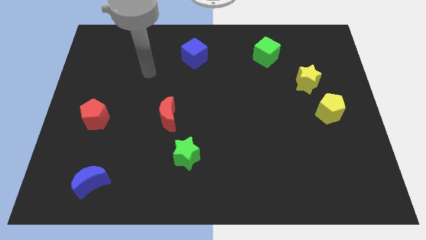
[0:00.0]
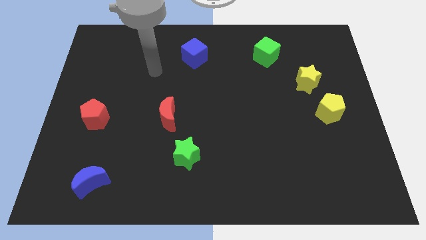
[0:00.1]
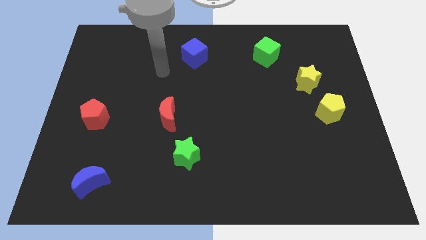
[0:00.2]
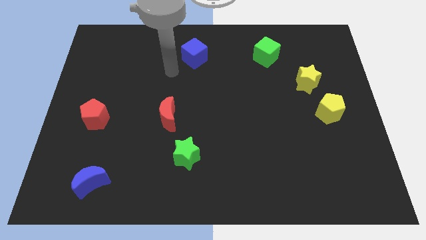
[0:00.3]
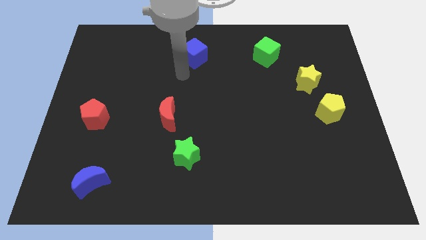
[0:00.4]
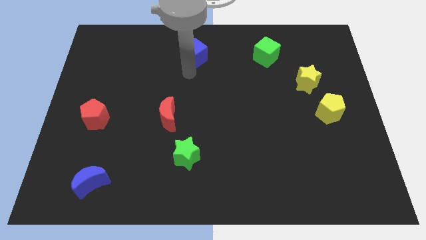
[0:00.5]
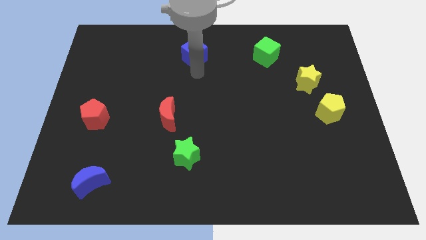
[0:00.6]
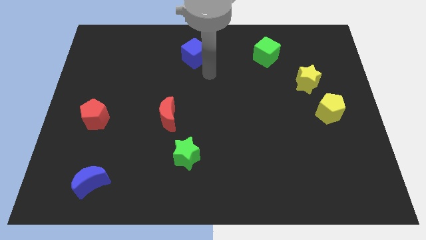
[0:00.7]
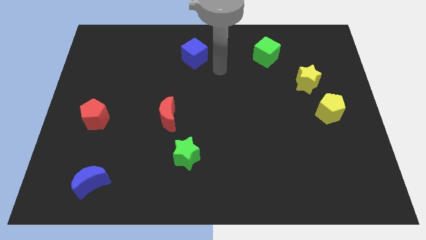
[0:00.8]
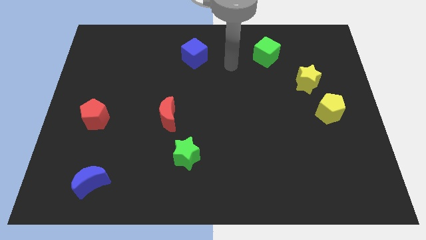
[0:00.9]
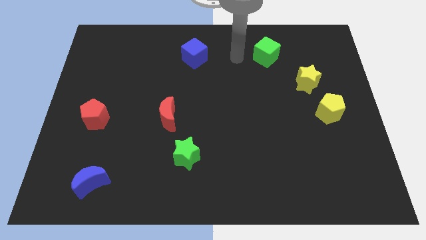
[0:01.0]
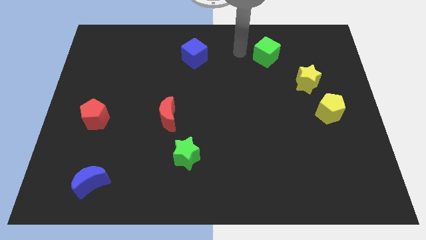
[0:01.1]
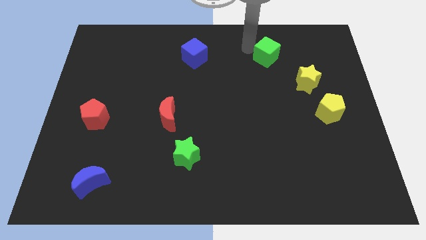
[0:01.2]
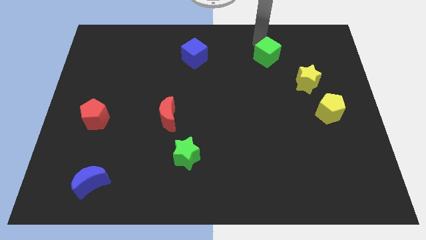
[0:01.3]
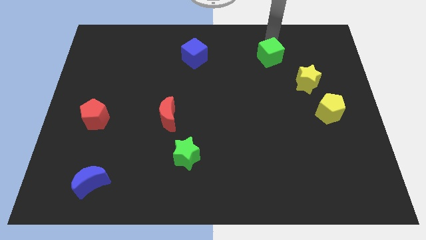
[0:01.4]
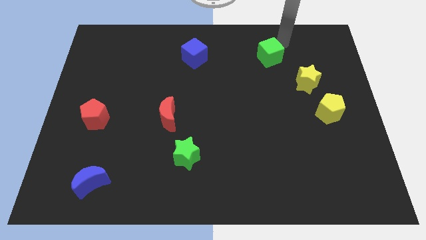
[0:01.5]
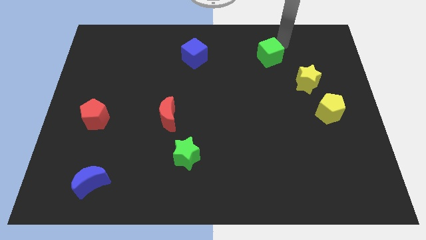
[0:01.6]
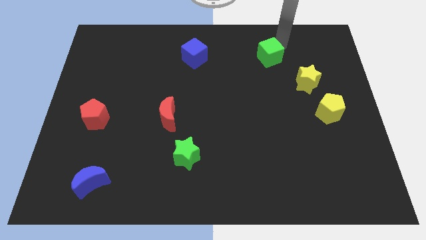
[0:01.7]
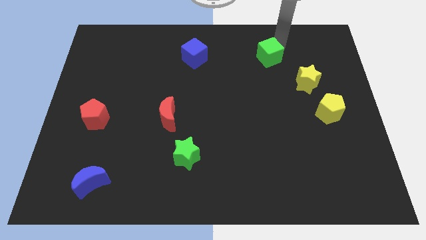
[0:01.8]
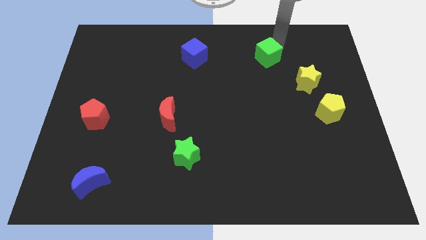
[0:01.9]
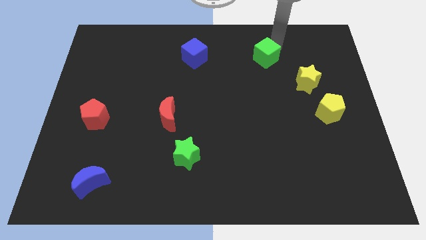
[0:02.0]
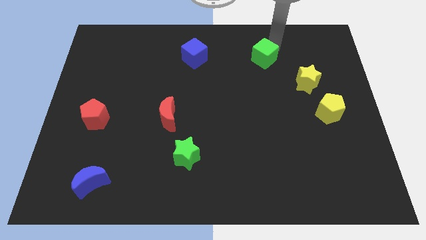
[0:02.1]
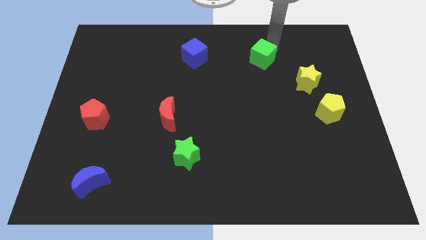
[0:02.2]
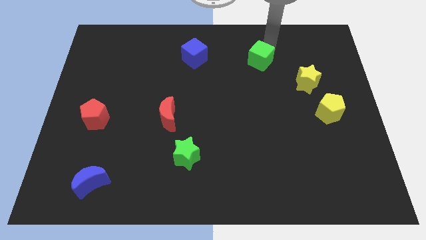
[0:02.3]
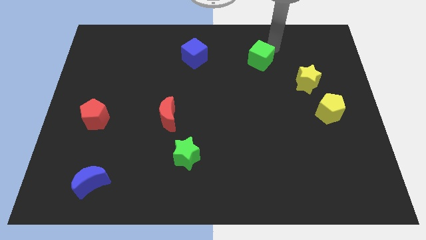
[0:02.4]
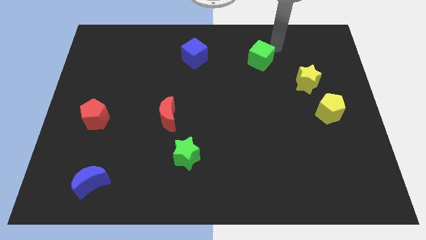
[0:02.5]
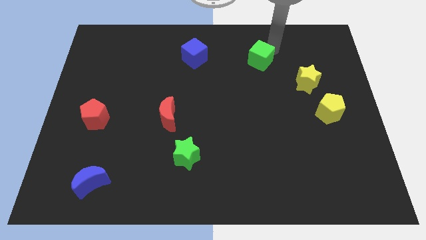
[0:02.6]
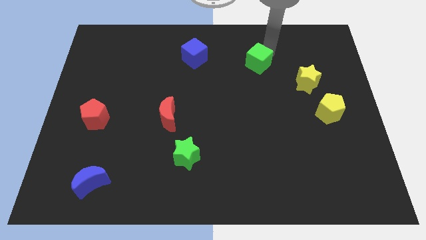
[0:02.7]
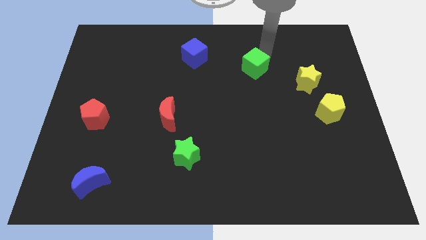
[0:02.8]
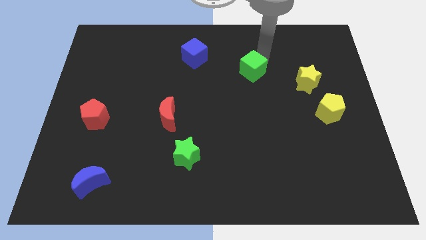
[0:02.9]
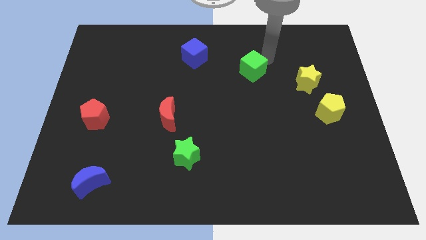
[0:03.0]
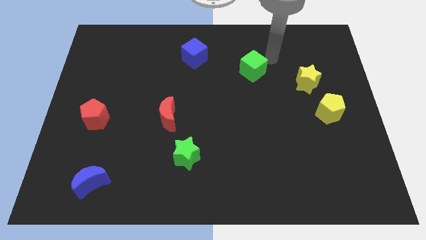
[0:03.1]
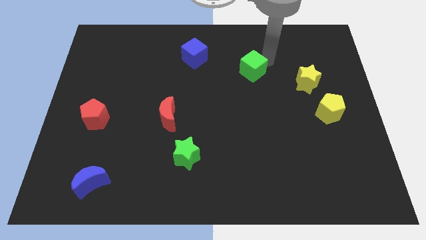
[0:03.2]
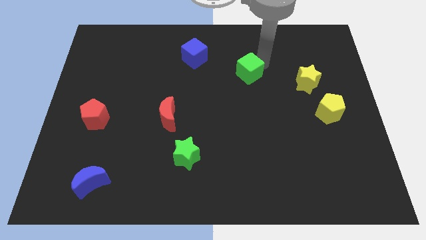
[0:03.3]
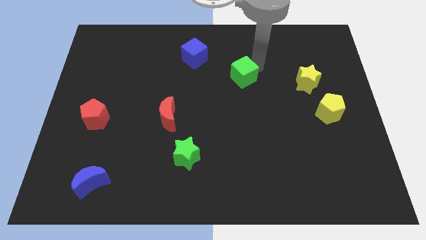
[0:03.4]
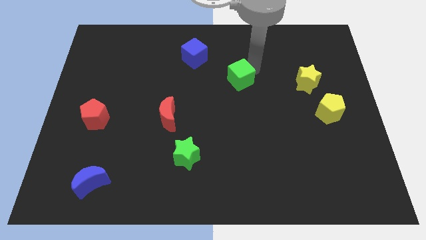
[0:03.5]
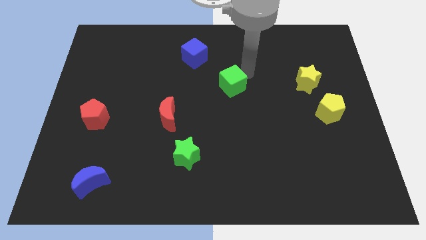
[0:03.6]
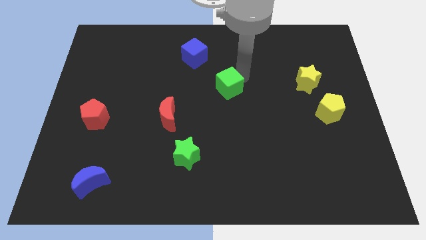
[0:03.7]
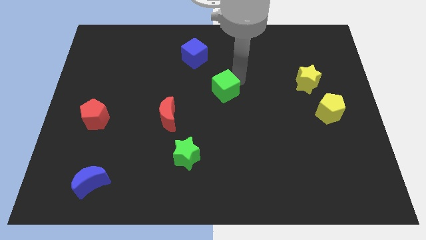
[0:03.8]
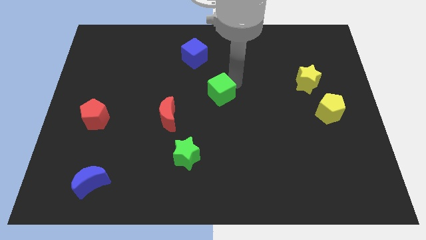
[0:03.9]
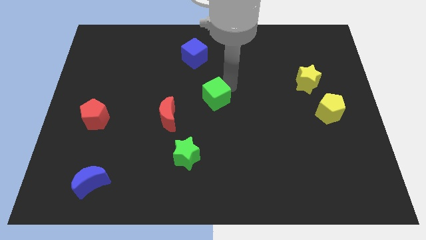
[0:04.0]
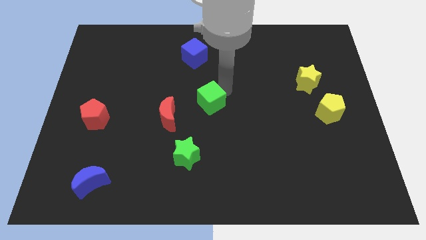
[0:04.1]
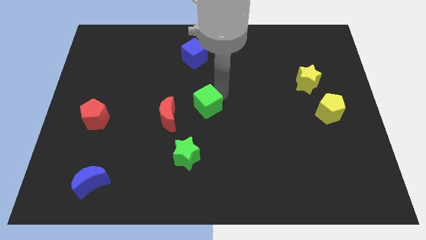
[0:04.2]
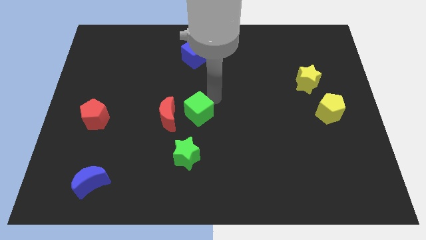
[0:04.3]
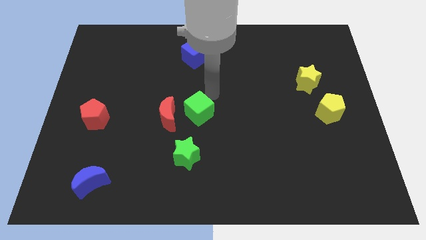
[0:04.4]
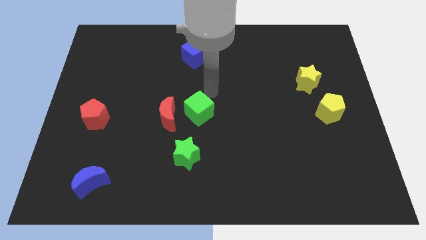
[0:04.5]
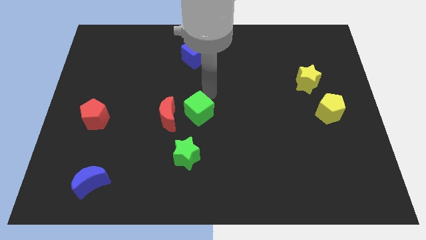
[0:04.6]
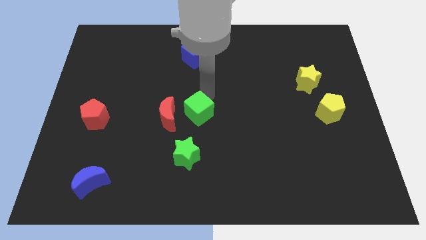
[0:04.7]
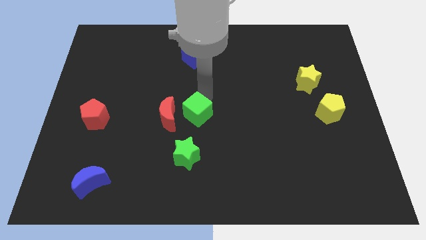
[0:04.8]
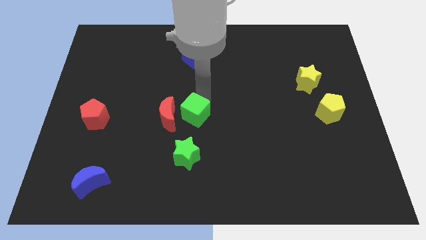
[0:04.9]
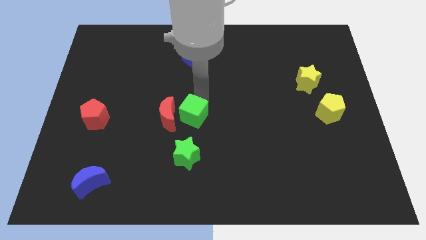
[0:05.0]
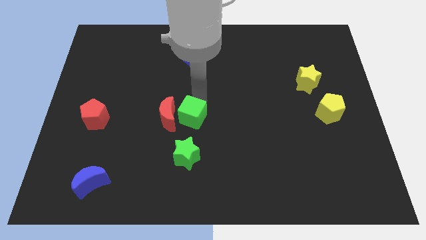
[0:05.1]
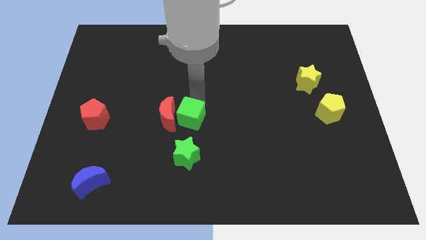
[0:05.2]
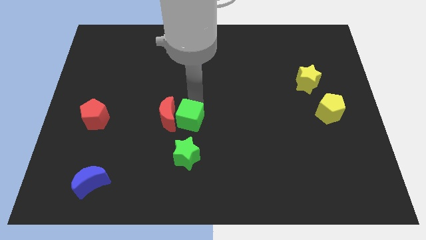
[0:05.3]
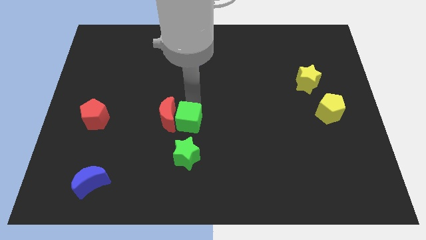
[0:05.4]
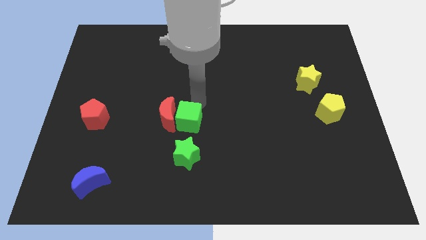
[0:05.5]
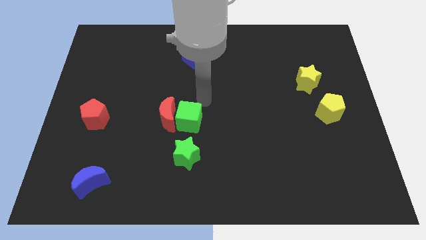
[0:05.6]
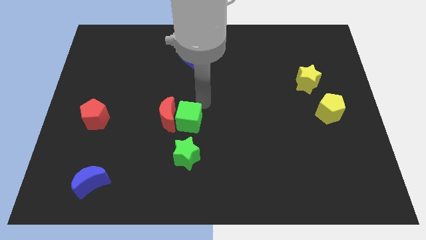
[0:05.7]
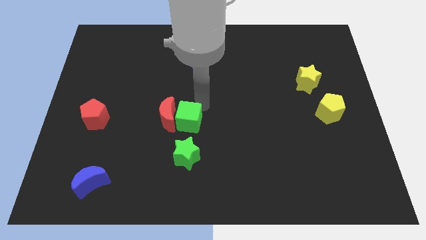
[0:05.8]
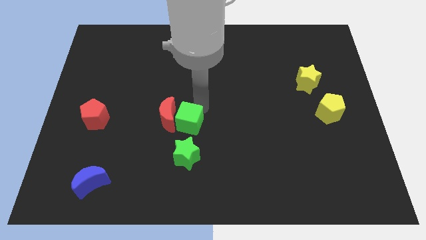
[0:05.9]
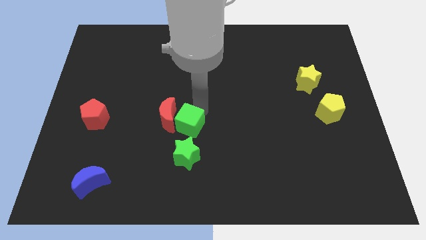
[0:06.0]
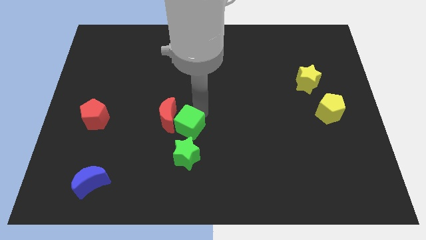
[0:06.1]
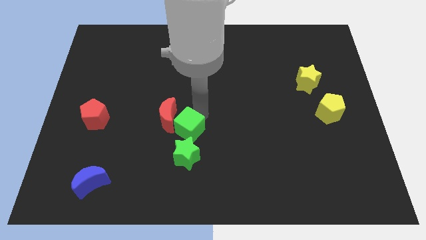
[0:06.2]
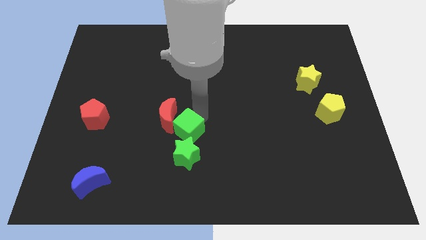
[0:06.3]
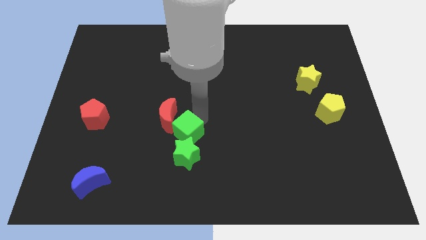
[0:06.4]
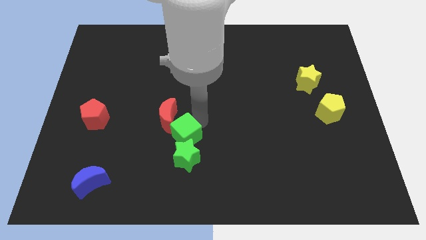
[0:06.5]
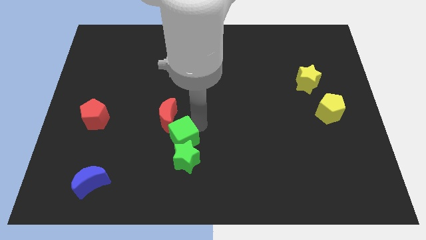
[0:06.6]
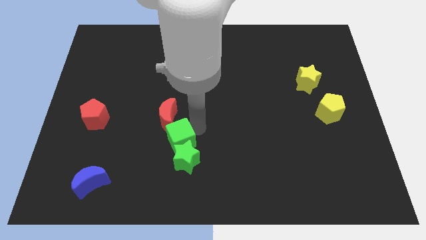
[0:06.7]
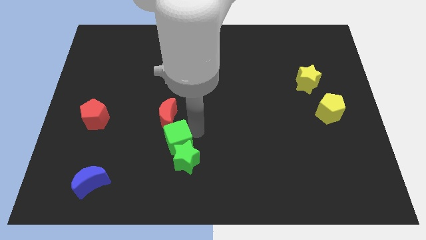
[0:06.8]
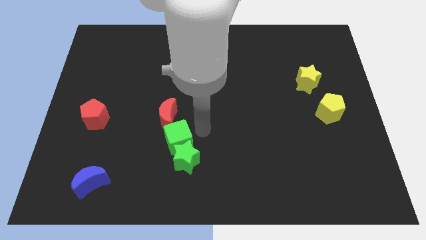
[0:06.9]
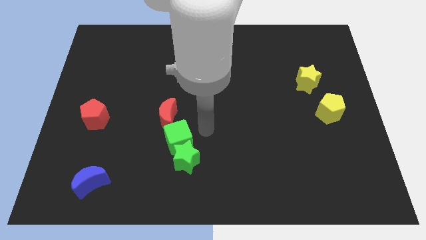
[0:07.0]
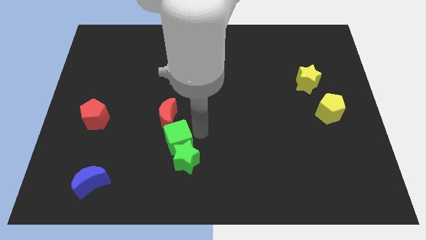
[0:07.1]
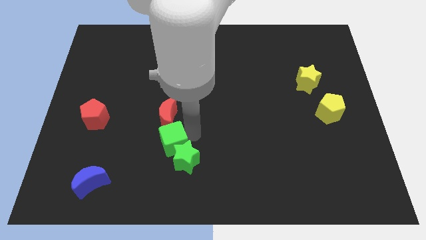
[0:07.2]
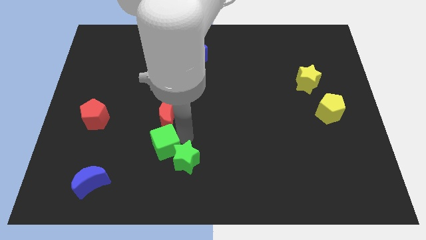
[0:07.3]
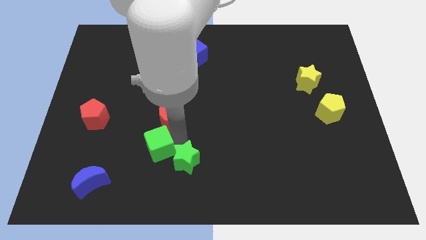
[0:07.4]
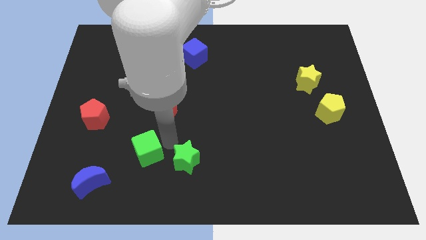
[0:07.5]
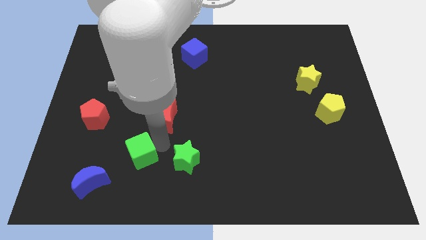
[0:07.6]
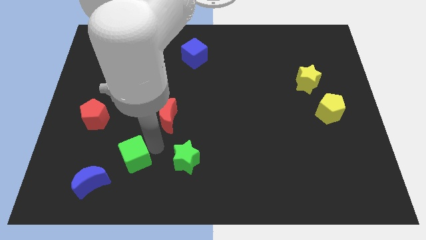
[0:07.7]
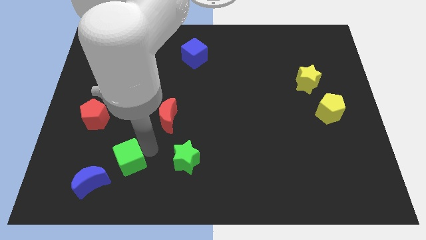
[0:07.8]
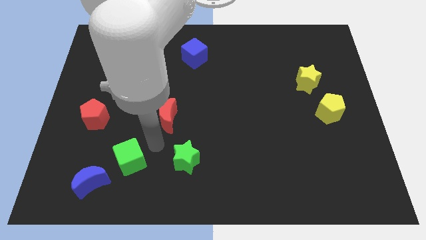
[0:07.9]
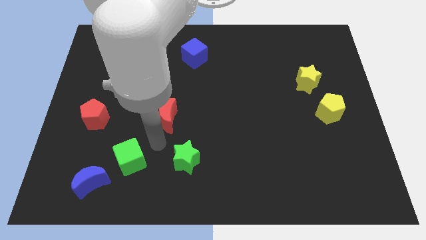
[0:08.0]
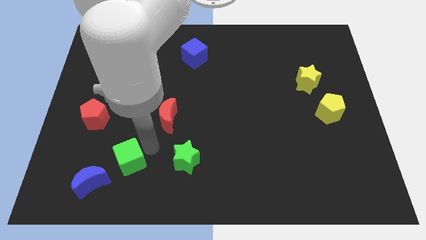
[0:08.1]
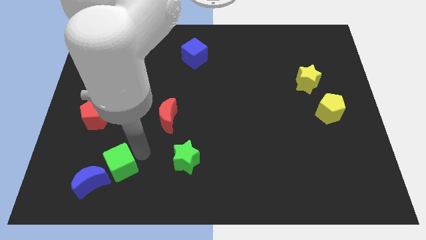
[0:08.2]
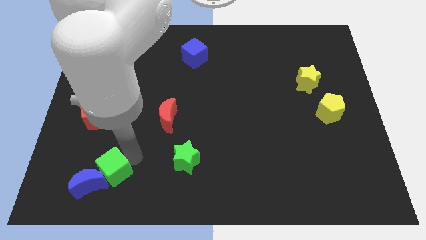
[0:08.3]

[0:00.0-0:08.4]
push the green cube towards the blue moon
